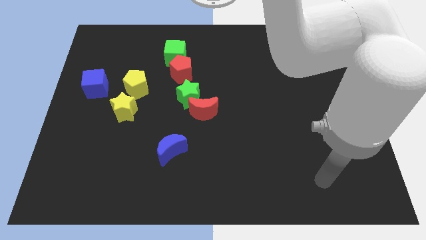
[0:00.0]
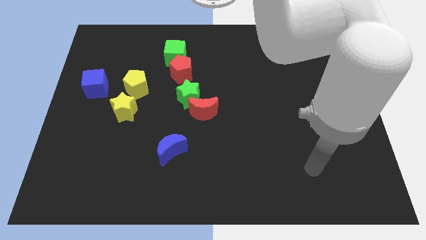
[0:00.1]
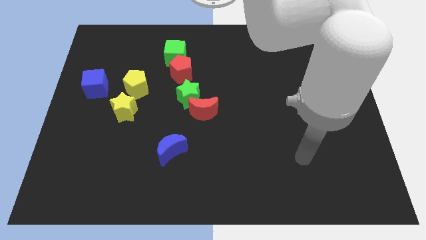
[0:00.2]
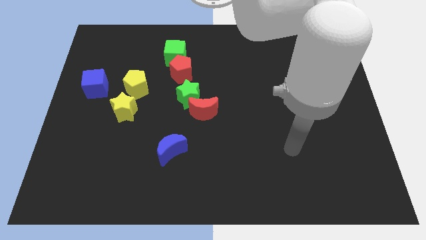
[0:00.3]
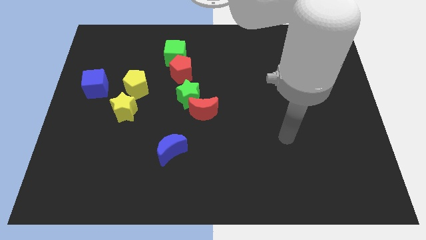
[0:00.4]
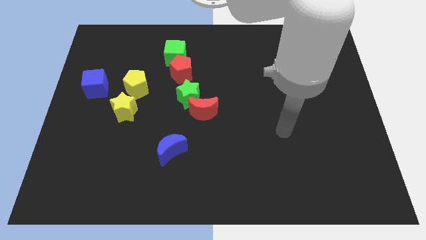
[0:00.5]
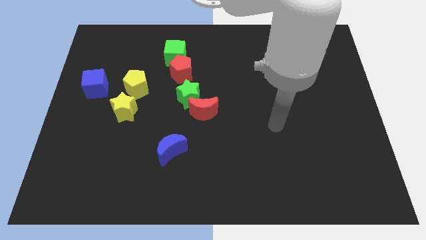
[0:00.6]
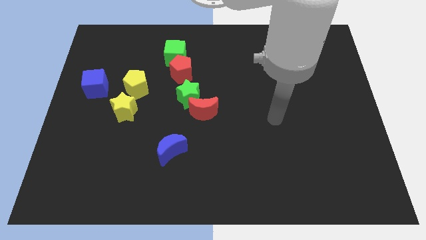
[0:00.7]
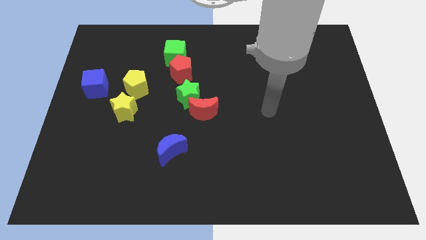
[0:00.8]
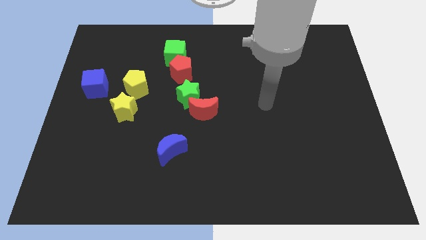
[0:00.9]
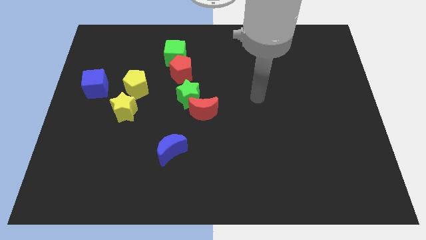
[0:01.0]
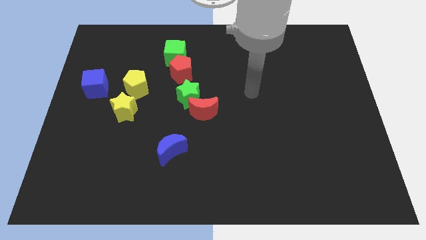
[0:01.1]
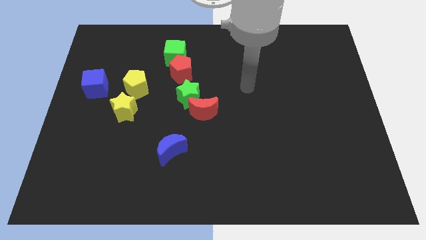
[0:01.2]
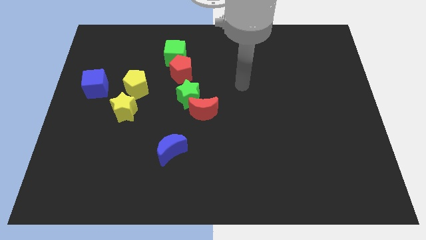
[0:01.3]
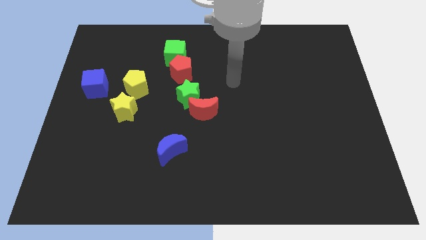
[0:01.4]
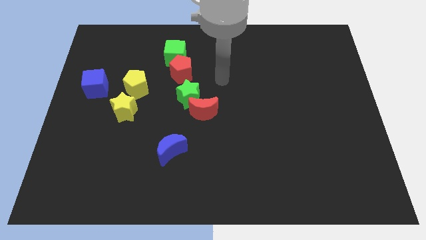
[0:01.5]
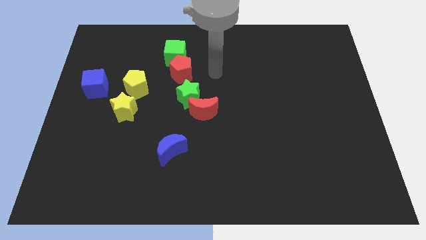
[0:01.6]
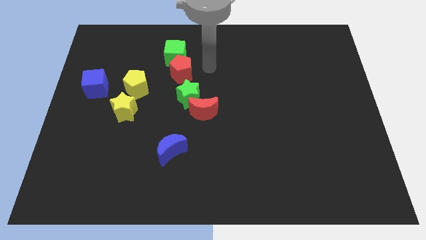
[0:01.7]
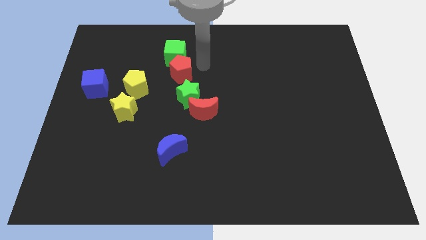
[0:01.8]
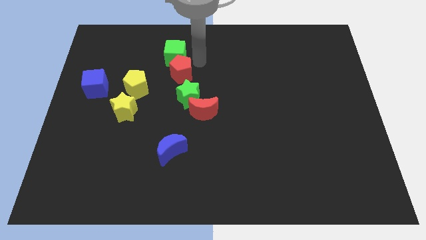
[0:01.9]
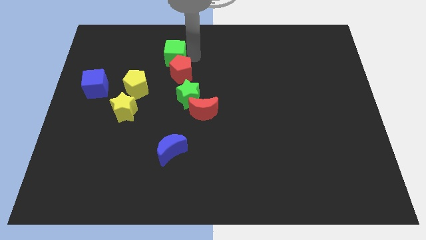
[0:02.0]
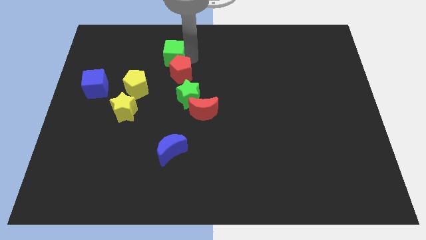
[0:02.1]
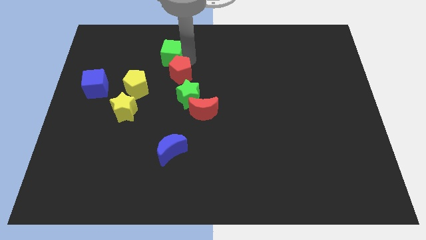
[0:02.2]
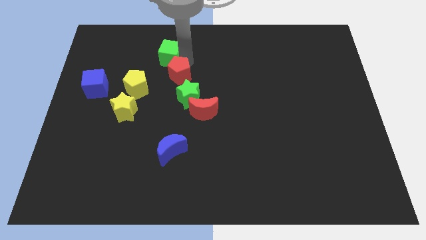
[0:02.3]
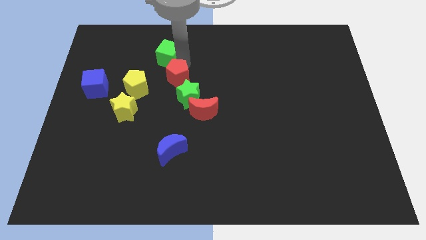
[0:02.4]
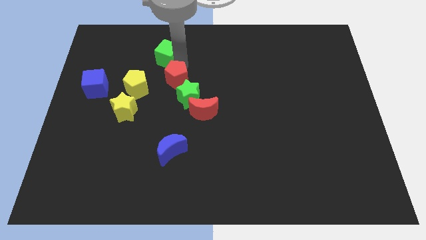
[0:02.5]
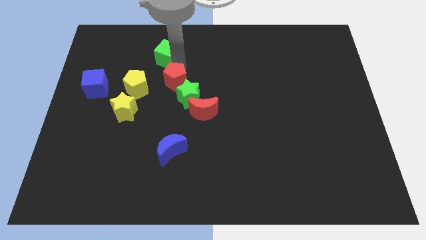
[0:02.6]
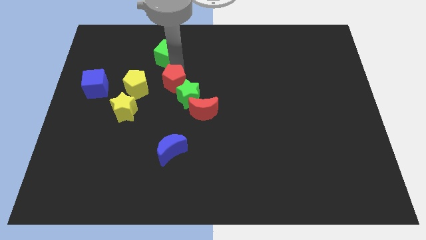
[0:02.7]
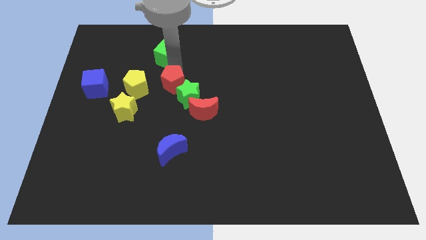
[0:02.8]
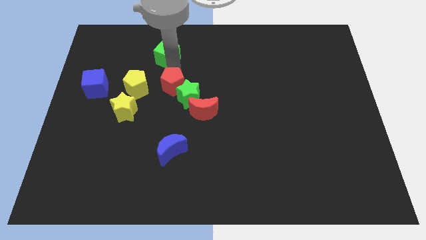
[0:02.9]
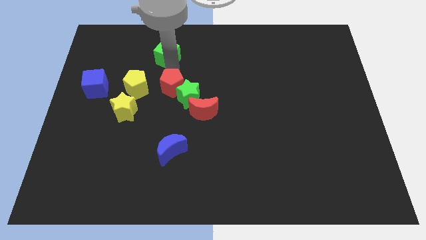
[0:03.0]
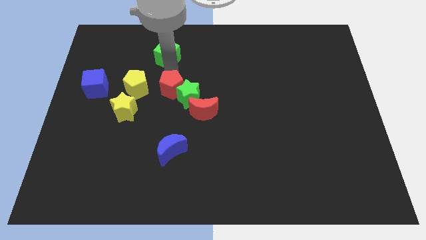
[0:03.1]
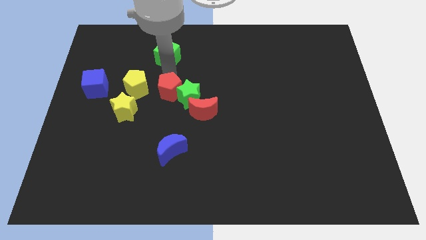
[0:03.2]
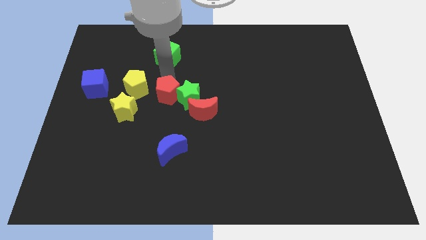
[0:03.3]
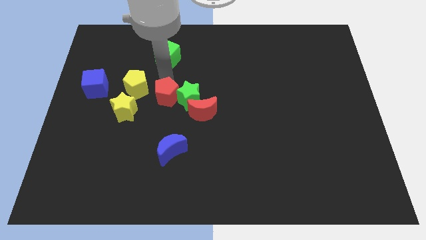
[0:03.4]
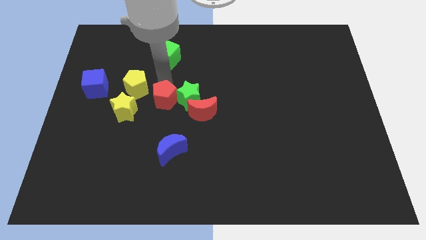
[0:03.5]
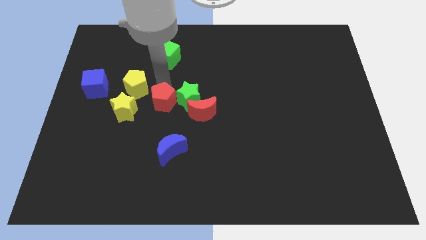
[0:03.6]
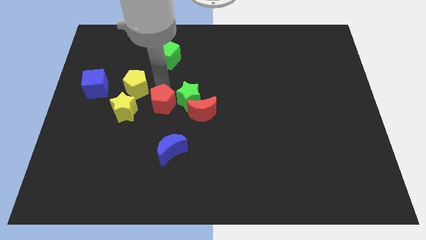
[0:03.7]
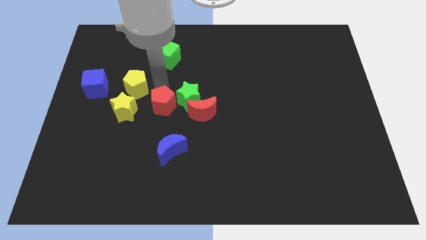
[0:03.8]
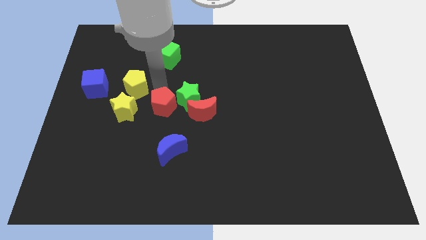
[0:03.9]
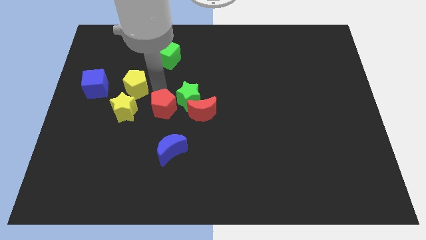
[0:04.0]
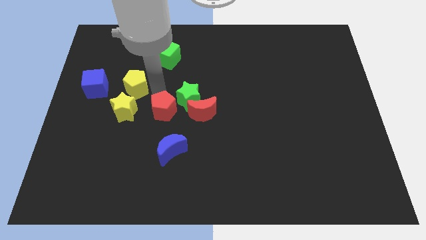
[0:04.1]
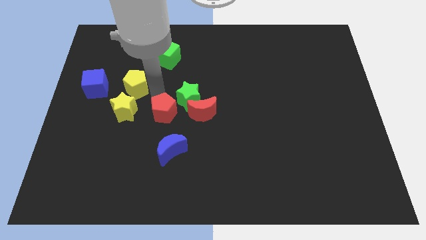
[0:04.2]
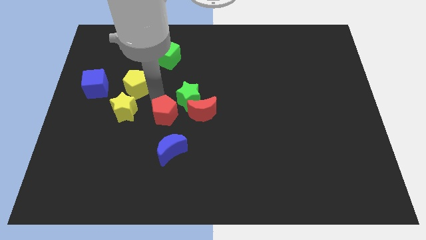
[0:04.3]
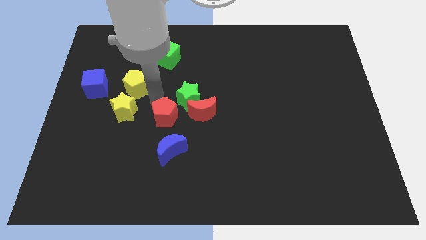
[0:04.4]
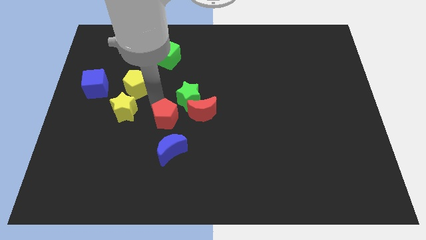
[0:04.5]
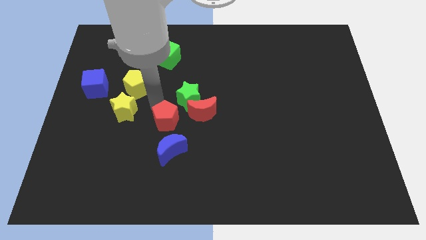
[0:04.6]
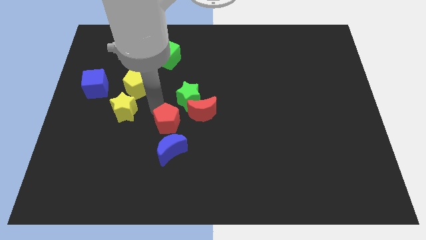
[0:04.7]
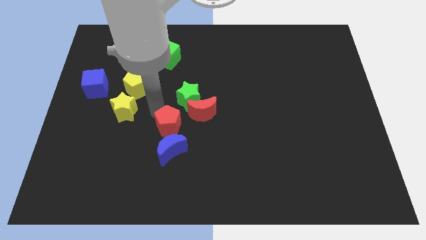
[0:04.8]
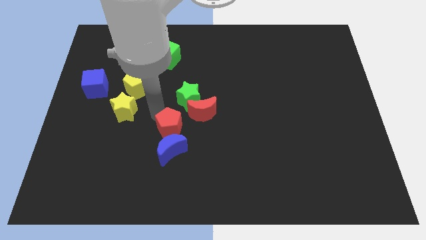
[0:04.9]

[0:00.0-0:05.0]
push the red pentagon next to the blue moon

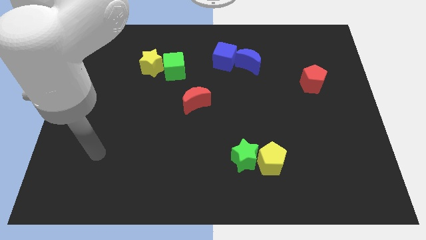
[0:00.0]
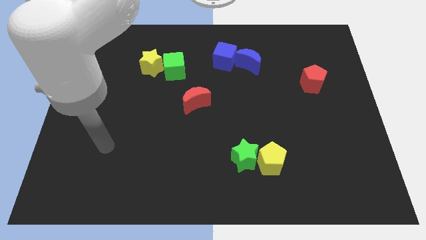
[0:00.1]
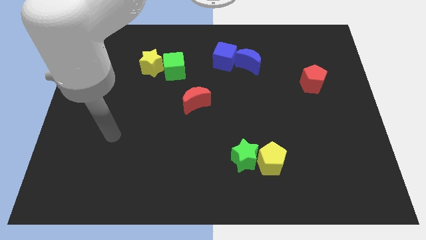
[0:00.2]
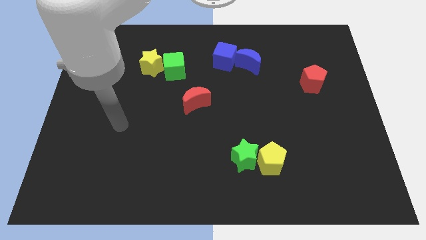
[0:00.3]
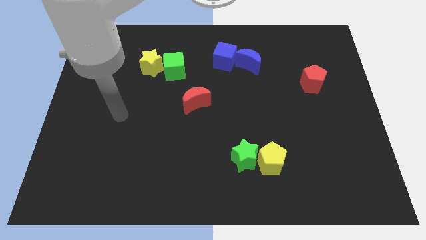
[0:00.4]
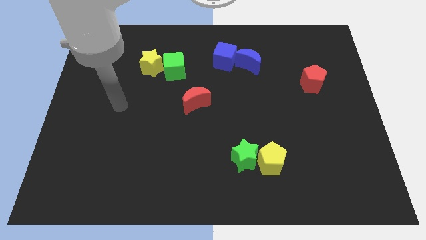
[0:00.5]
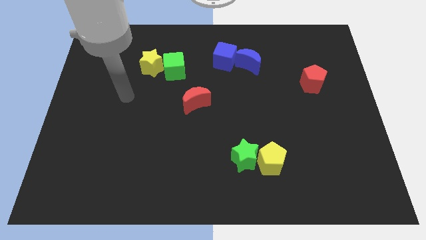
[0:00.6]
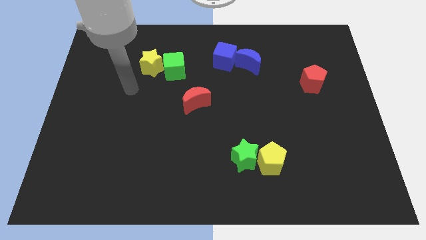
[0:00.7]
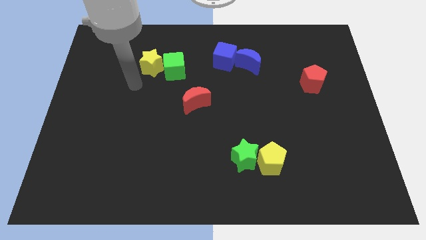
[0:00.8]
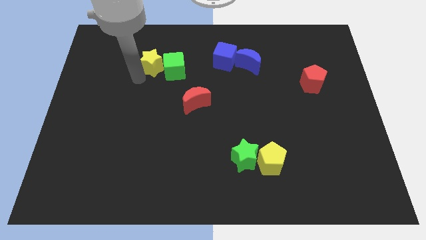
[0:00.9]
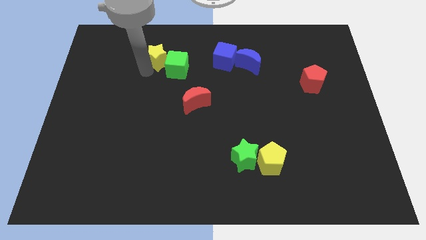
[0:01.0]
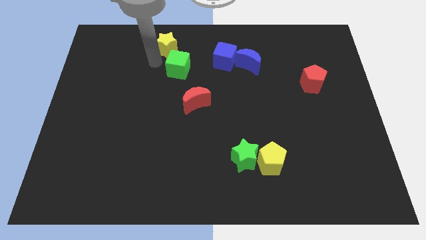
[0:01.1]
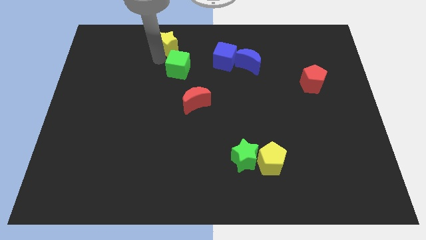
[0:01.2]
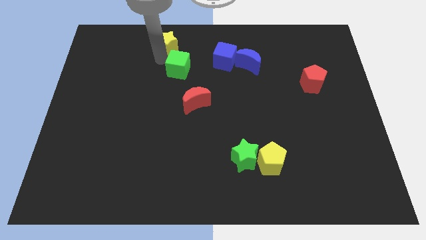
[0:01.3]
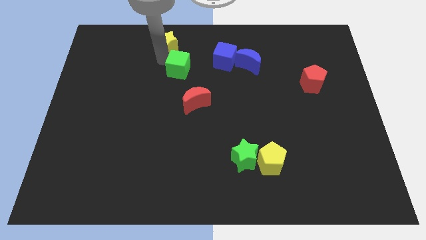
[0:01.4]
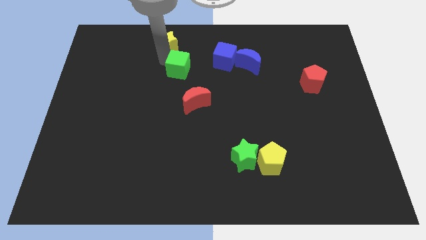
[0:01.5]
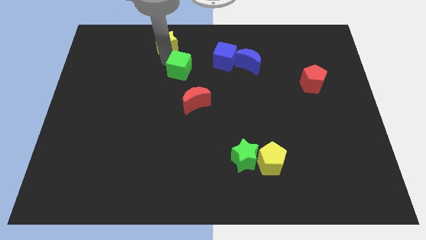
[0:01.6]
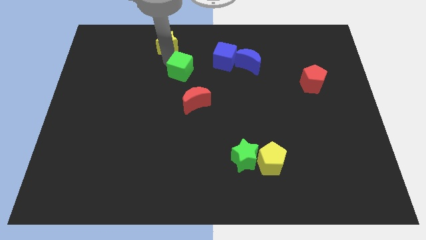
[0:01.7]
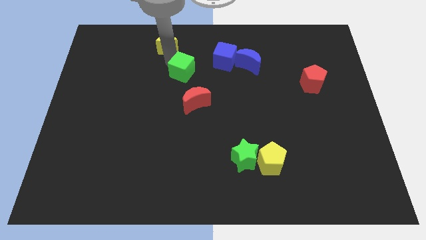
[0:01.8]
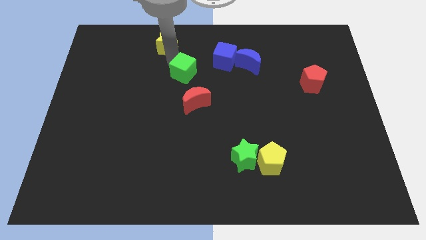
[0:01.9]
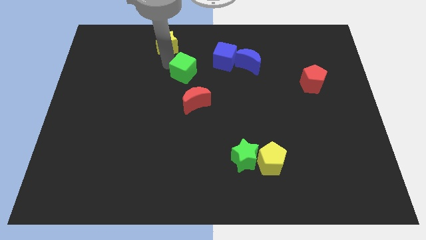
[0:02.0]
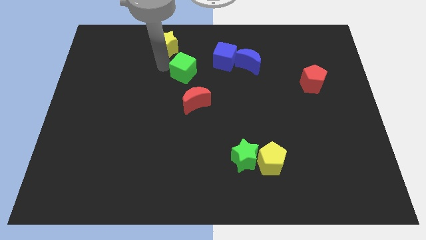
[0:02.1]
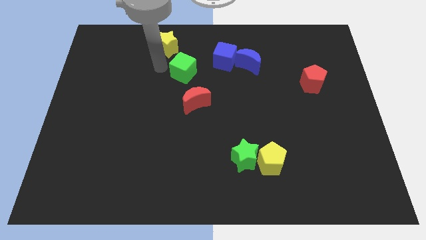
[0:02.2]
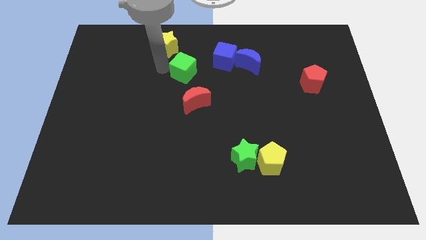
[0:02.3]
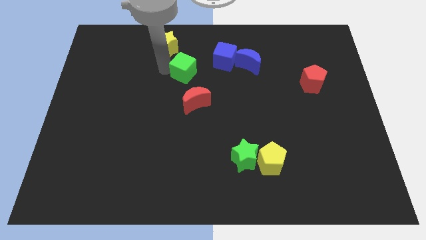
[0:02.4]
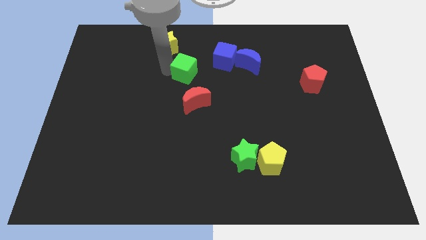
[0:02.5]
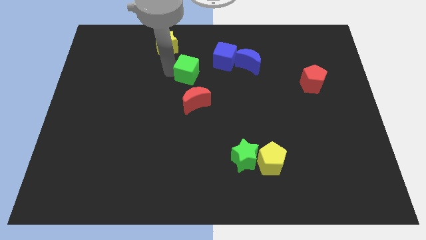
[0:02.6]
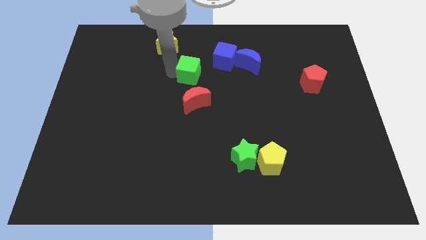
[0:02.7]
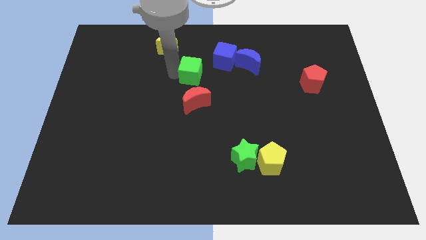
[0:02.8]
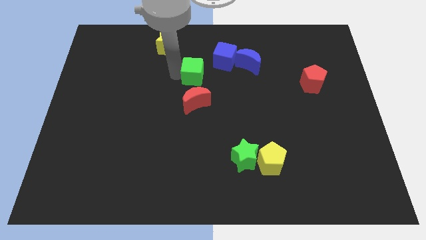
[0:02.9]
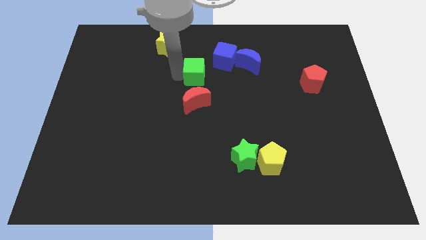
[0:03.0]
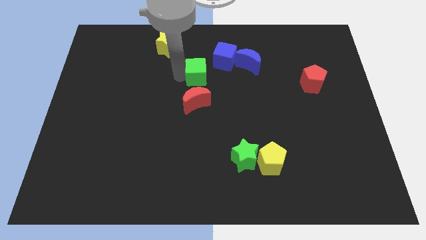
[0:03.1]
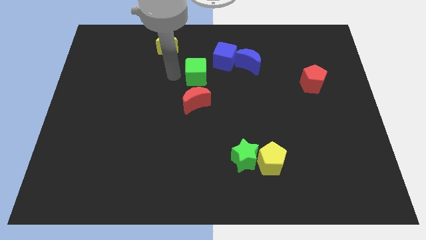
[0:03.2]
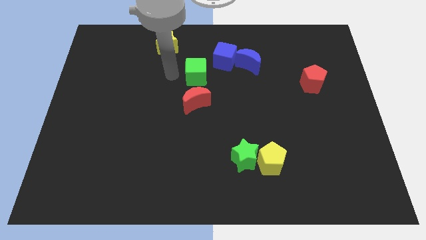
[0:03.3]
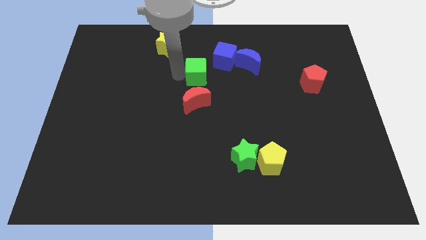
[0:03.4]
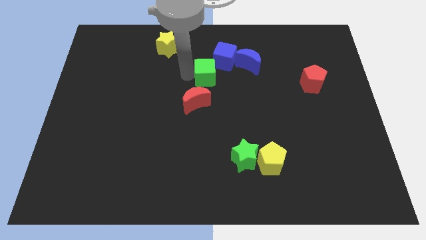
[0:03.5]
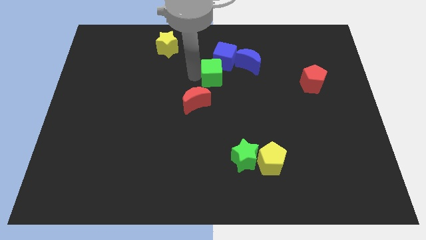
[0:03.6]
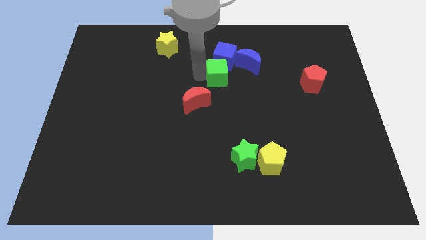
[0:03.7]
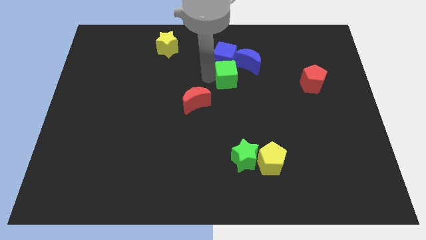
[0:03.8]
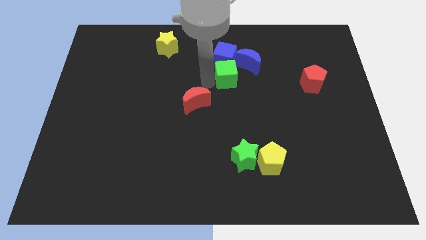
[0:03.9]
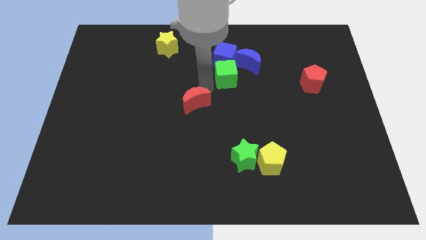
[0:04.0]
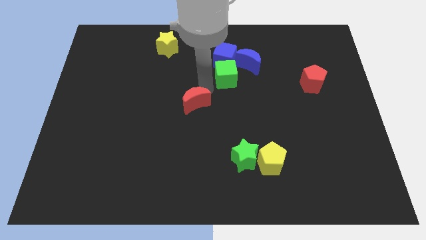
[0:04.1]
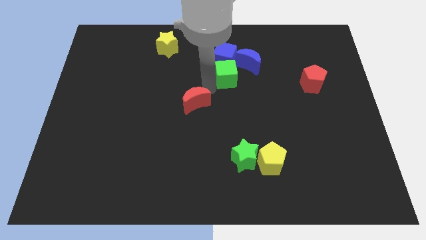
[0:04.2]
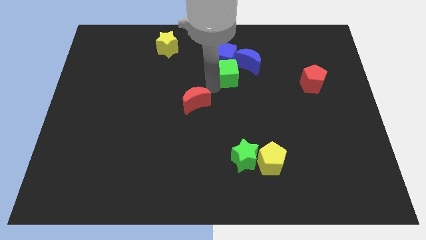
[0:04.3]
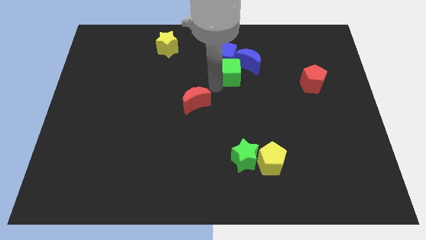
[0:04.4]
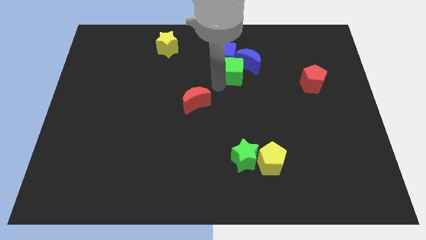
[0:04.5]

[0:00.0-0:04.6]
push the green cube next to the blue moon
